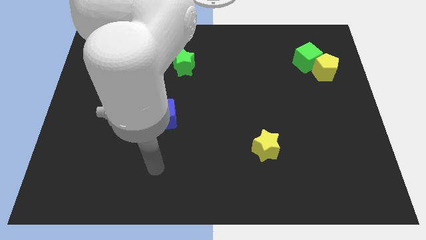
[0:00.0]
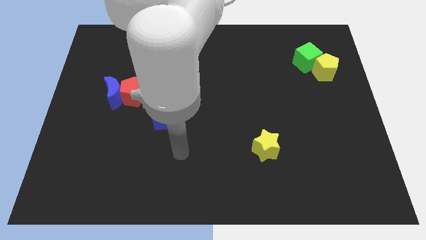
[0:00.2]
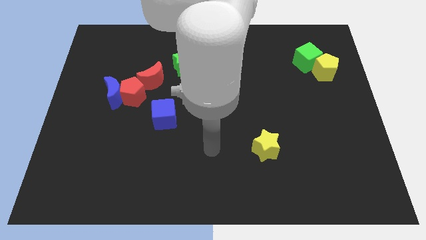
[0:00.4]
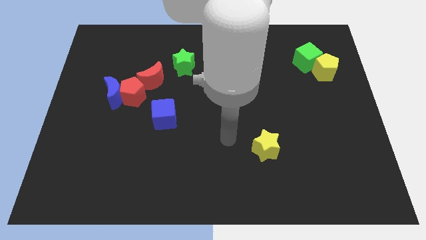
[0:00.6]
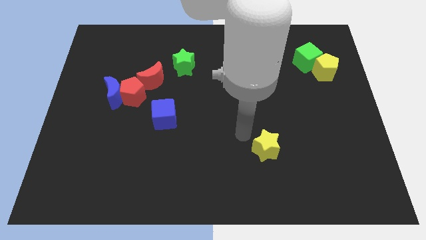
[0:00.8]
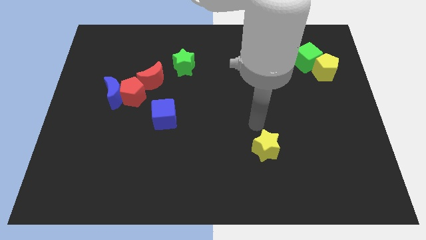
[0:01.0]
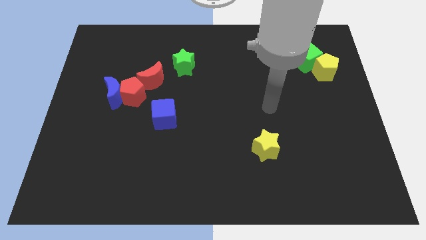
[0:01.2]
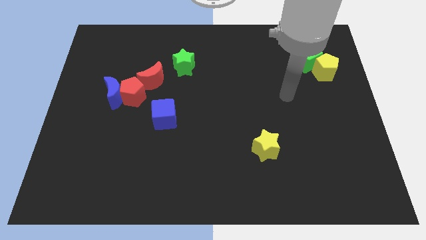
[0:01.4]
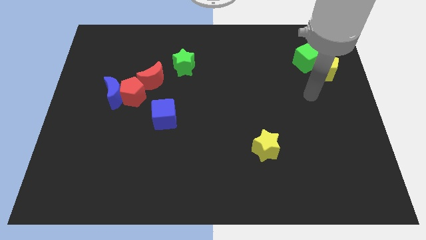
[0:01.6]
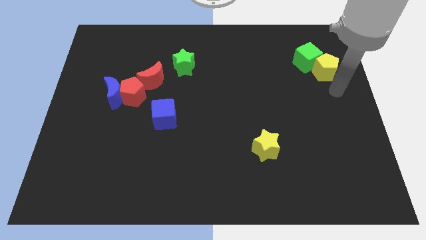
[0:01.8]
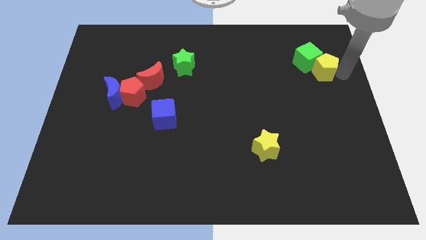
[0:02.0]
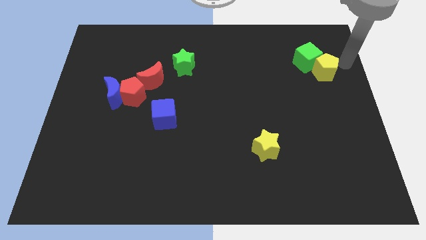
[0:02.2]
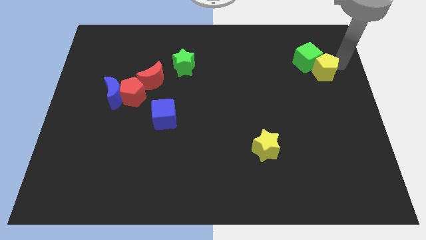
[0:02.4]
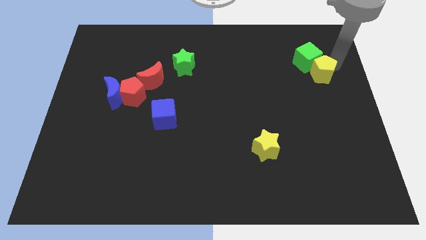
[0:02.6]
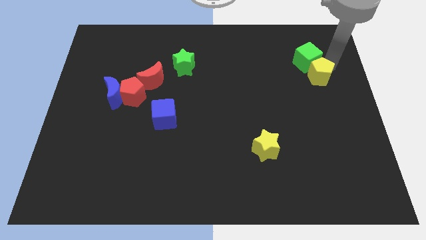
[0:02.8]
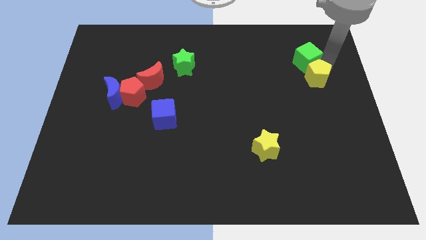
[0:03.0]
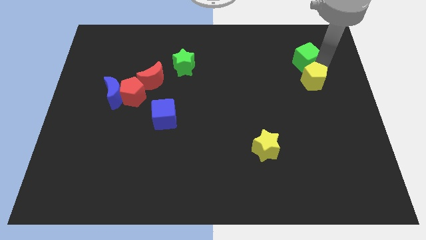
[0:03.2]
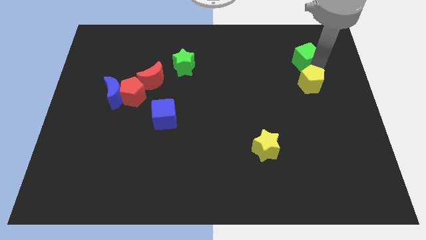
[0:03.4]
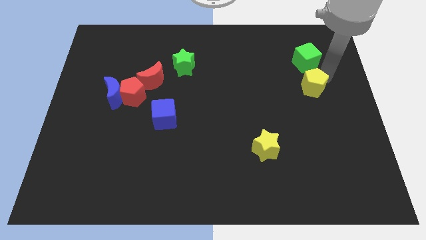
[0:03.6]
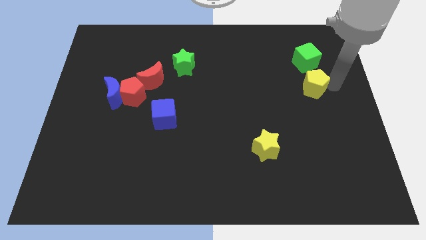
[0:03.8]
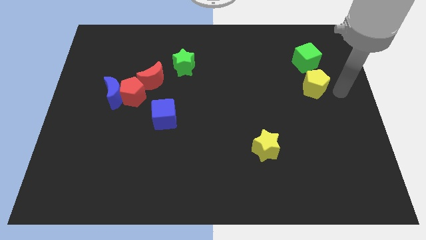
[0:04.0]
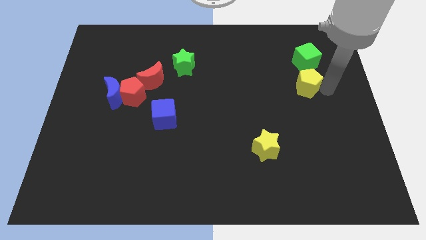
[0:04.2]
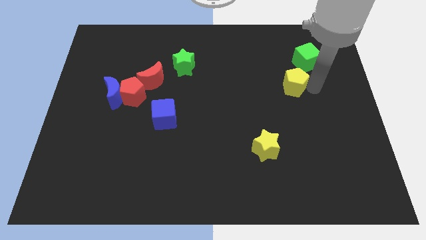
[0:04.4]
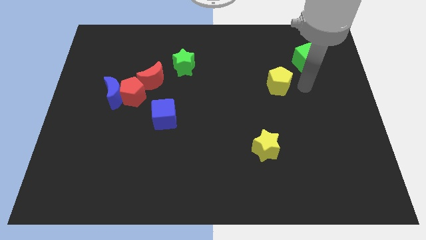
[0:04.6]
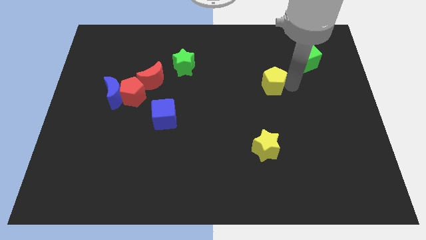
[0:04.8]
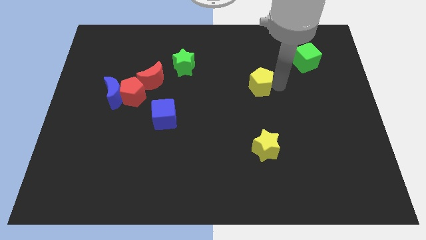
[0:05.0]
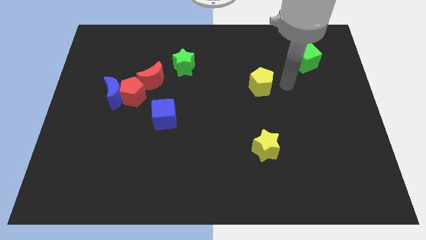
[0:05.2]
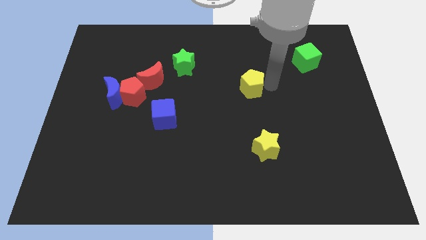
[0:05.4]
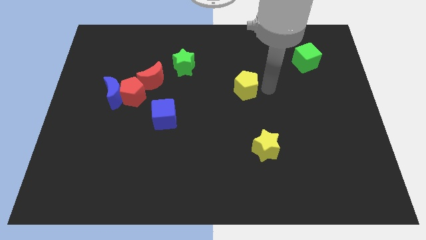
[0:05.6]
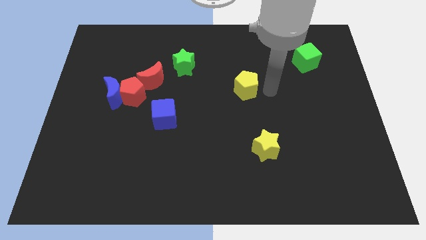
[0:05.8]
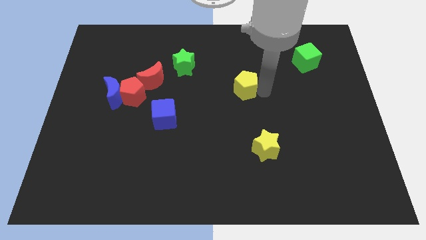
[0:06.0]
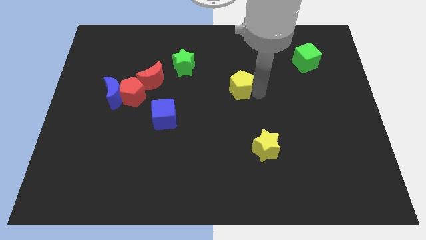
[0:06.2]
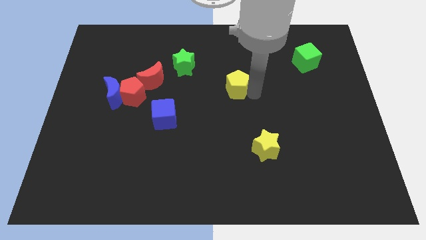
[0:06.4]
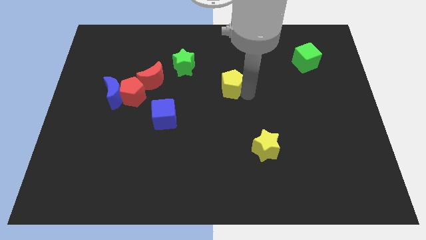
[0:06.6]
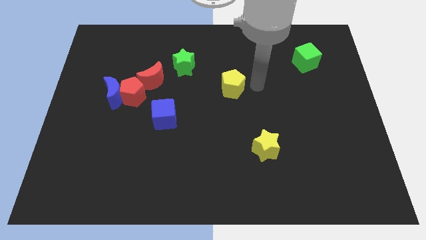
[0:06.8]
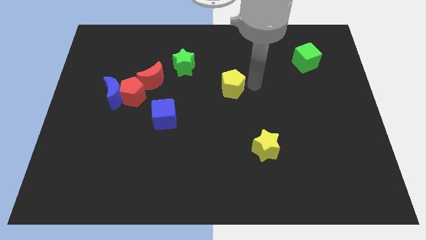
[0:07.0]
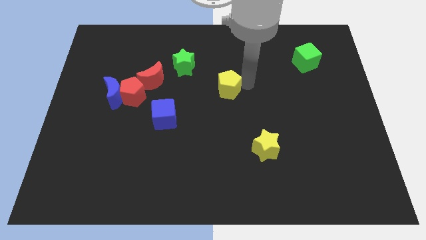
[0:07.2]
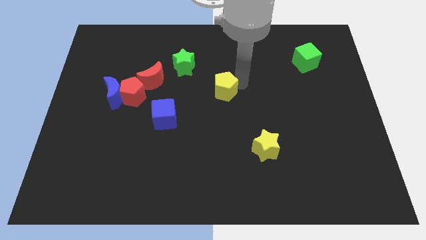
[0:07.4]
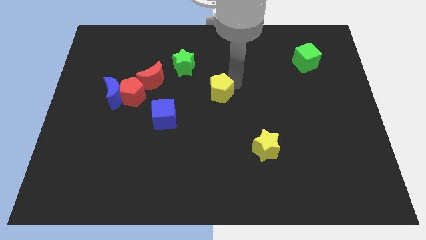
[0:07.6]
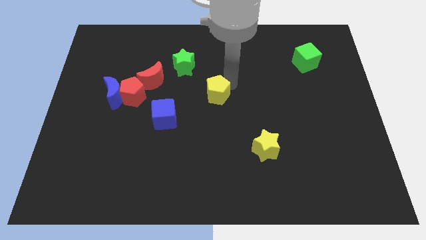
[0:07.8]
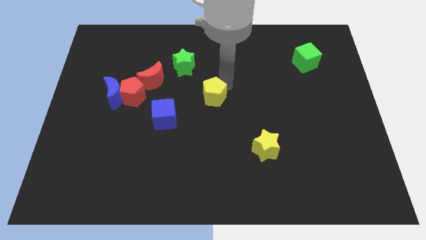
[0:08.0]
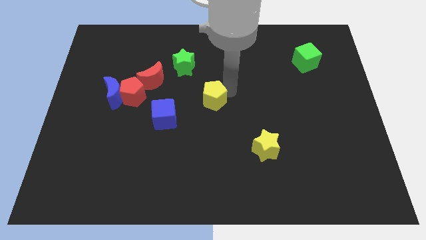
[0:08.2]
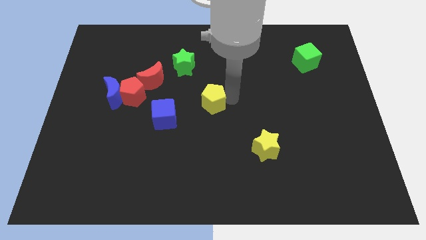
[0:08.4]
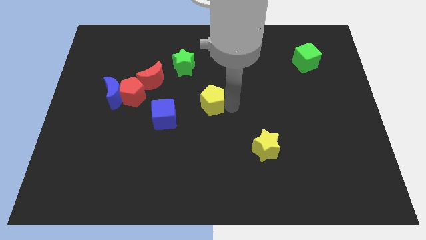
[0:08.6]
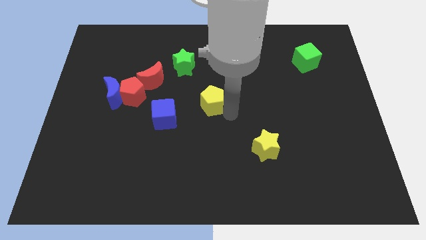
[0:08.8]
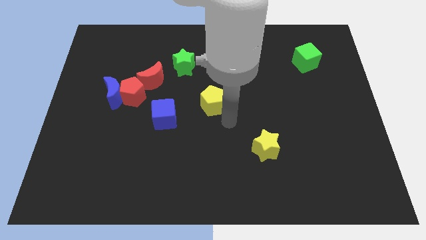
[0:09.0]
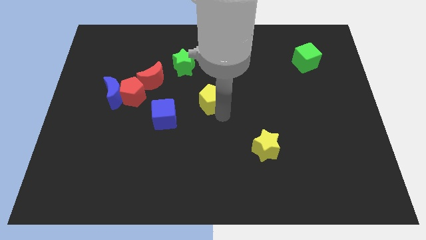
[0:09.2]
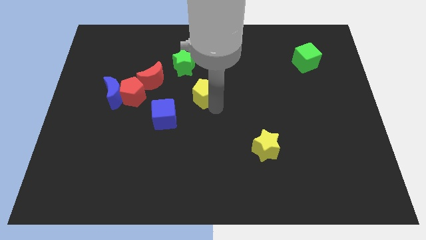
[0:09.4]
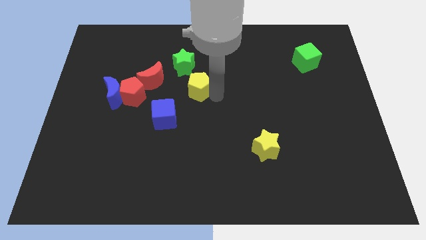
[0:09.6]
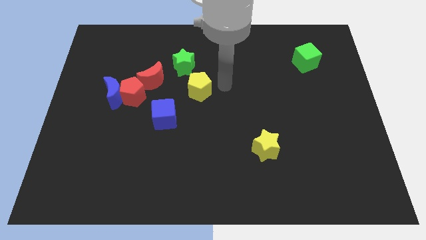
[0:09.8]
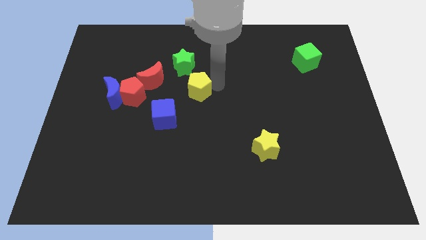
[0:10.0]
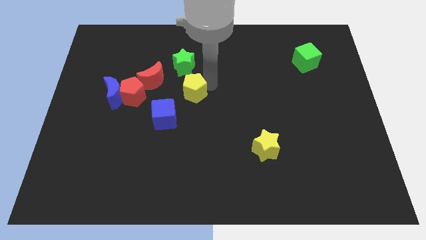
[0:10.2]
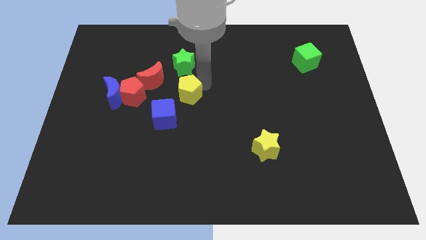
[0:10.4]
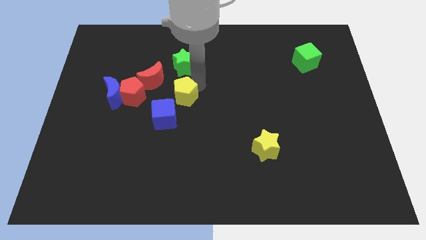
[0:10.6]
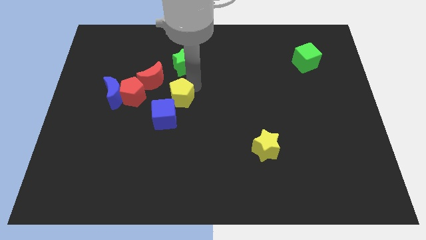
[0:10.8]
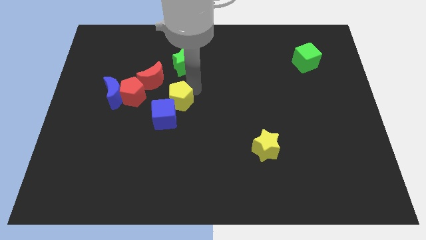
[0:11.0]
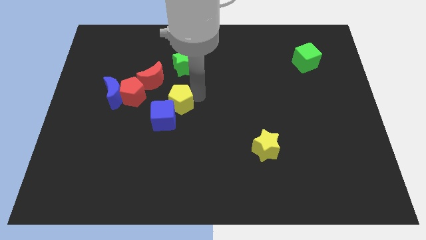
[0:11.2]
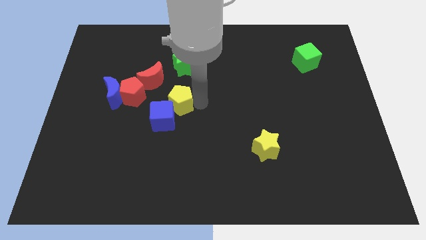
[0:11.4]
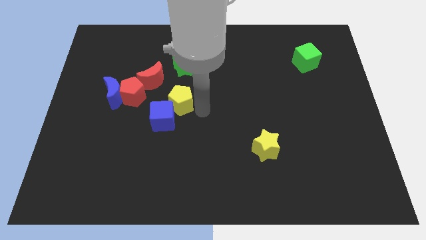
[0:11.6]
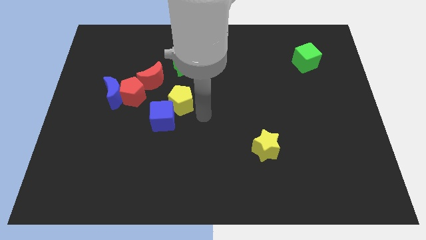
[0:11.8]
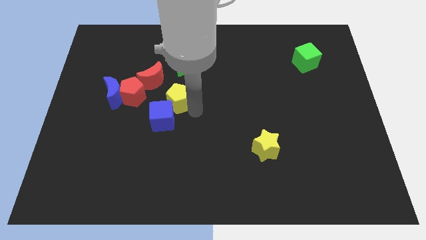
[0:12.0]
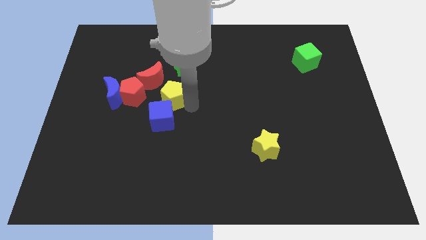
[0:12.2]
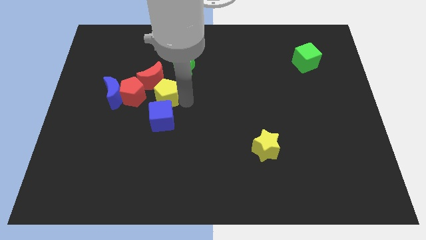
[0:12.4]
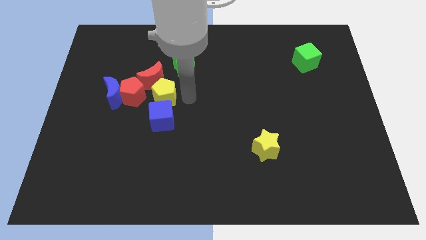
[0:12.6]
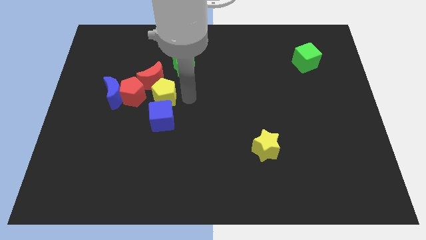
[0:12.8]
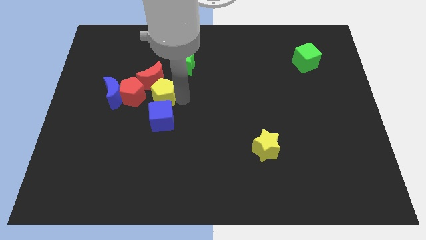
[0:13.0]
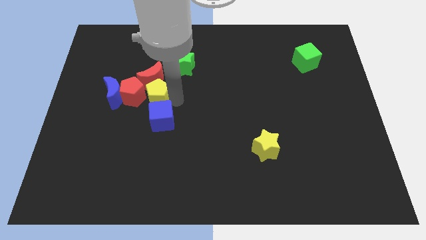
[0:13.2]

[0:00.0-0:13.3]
put the yellow pentagon to the red pentagon

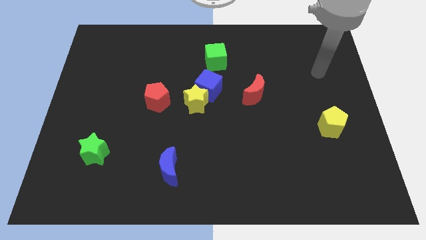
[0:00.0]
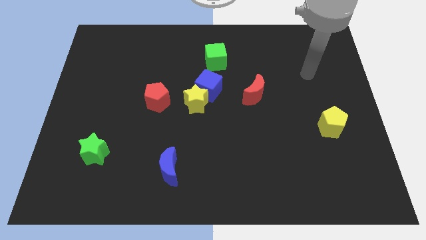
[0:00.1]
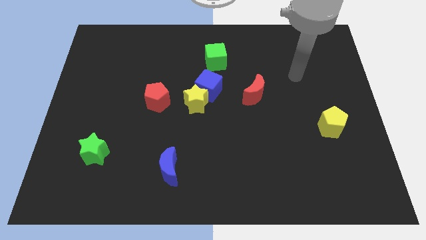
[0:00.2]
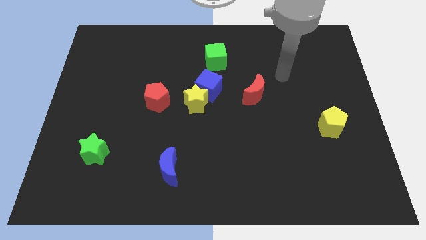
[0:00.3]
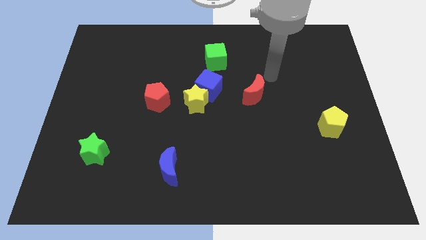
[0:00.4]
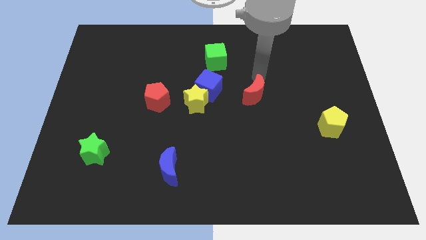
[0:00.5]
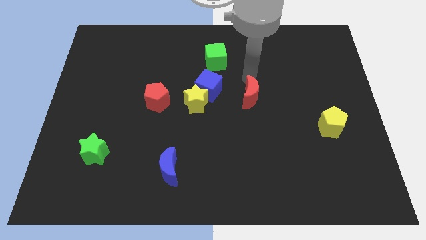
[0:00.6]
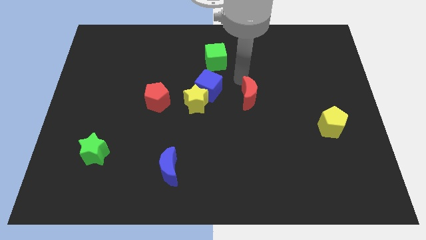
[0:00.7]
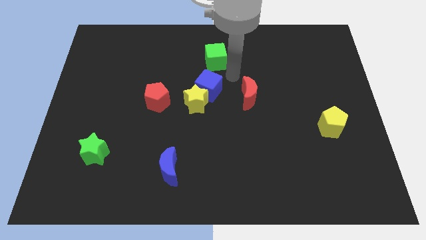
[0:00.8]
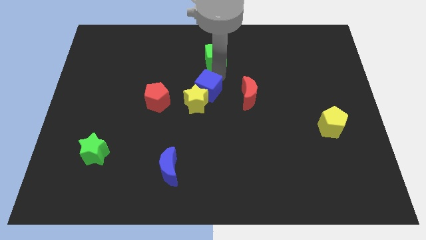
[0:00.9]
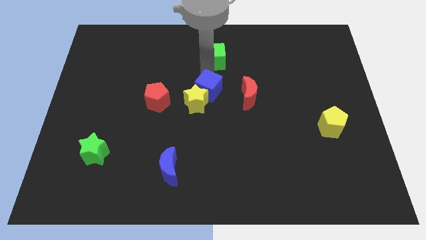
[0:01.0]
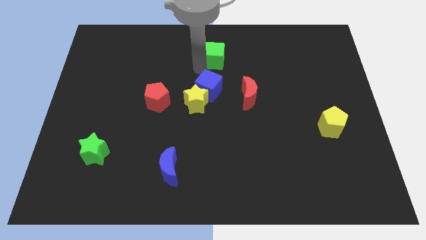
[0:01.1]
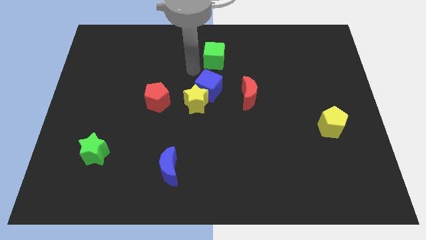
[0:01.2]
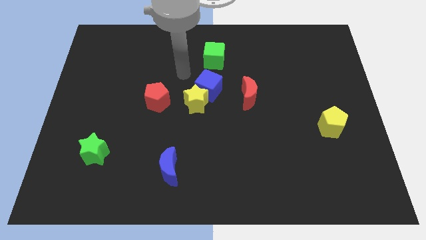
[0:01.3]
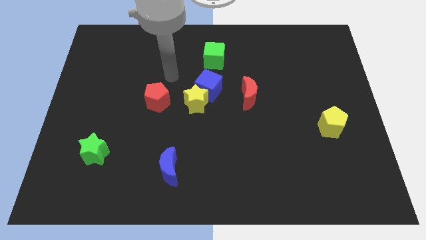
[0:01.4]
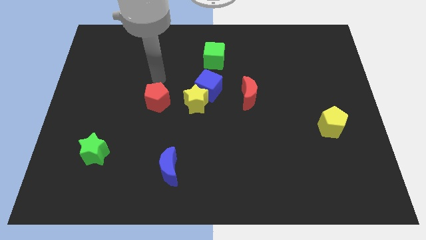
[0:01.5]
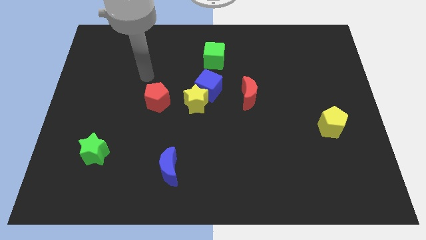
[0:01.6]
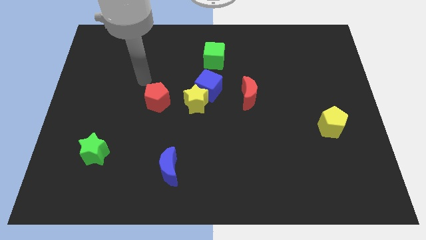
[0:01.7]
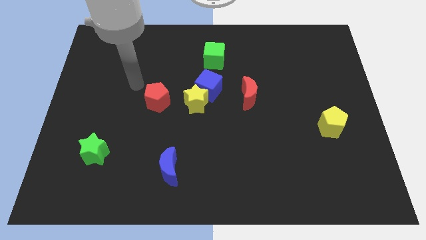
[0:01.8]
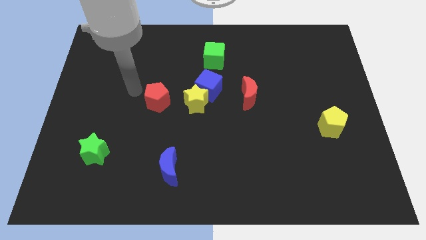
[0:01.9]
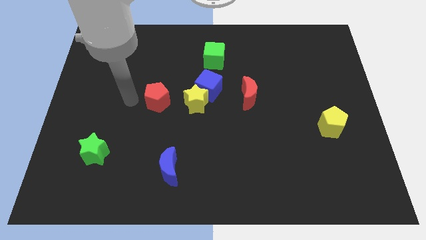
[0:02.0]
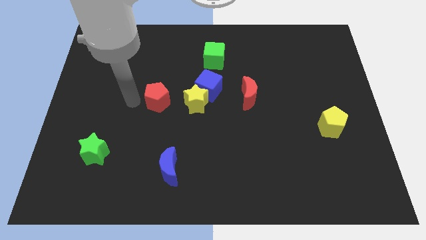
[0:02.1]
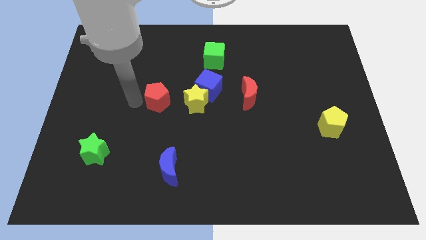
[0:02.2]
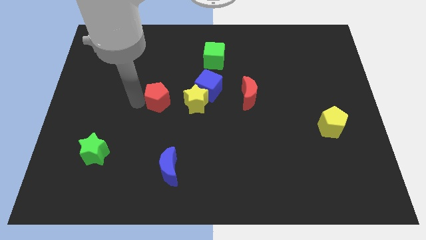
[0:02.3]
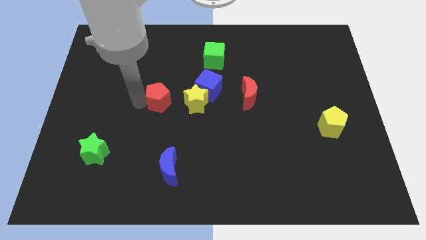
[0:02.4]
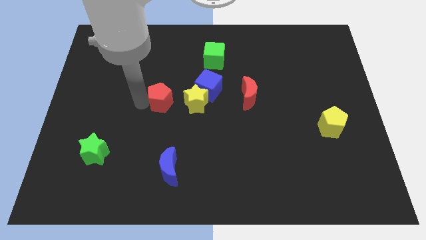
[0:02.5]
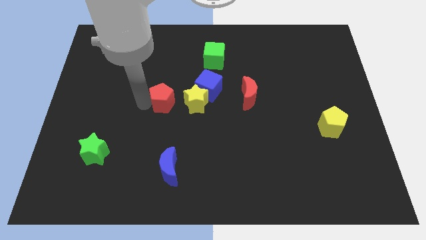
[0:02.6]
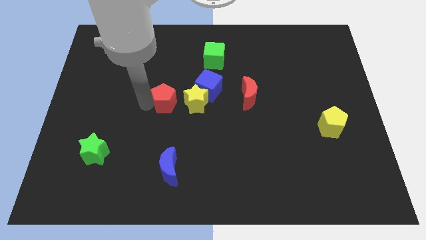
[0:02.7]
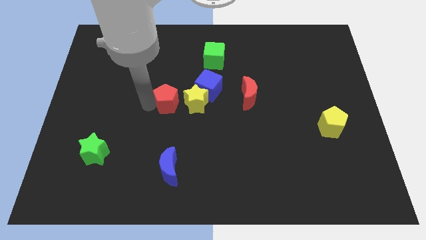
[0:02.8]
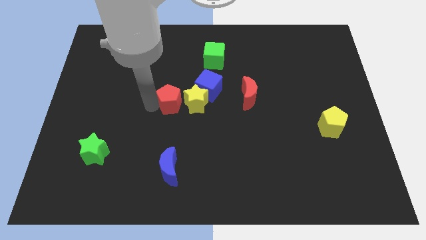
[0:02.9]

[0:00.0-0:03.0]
push the red pentagon towards the yellow star
